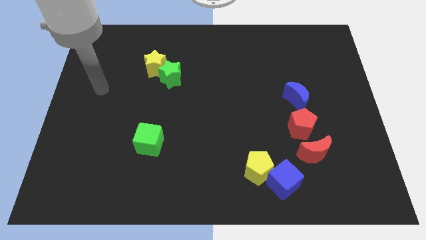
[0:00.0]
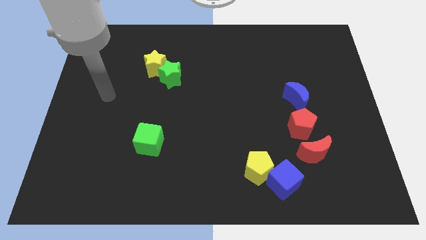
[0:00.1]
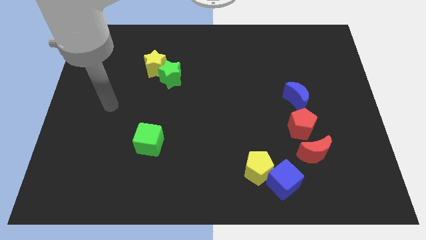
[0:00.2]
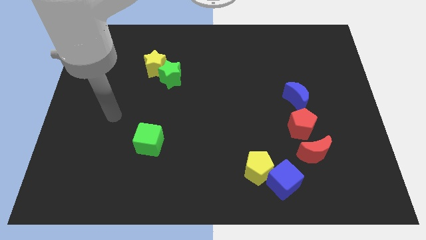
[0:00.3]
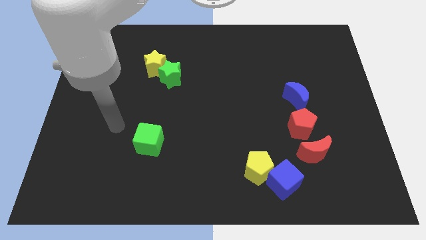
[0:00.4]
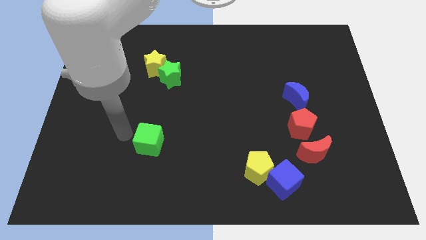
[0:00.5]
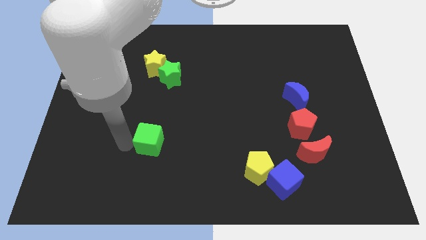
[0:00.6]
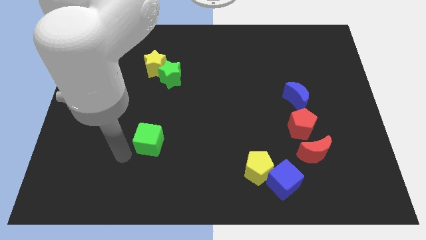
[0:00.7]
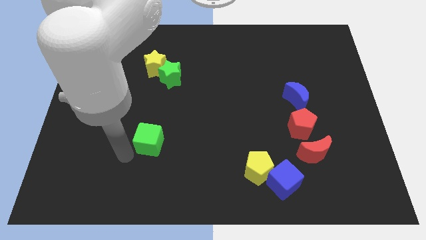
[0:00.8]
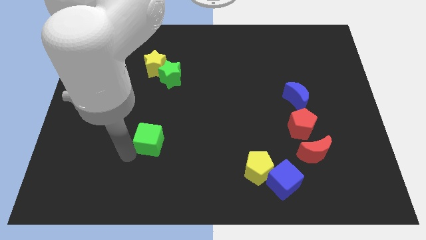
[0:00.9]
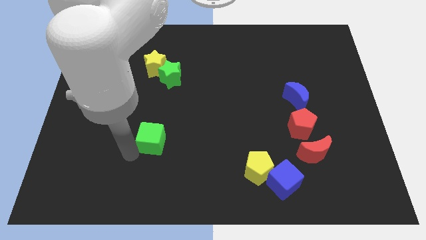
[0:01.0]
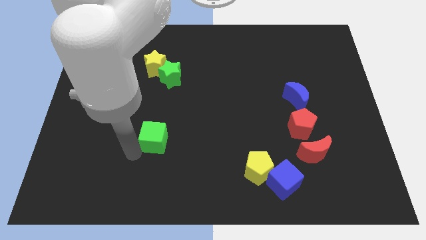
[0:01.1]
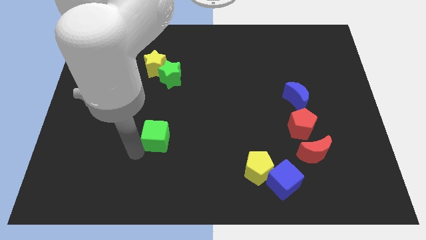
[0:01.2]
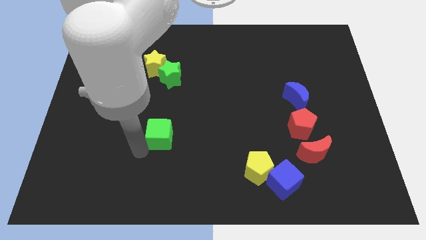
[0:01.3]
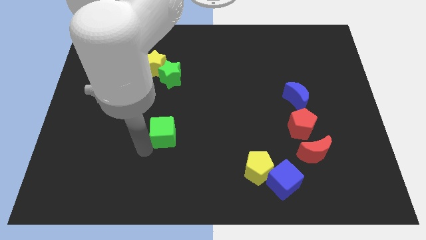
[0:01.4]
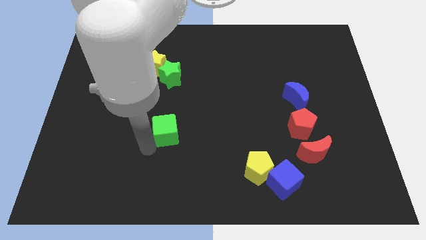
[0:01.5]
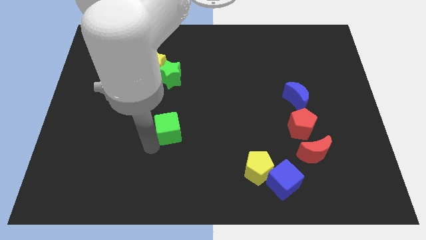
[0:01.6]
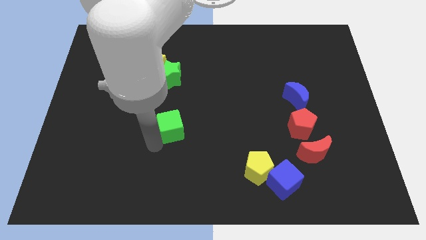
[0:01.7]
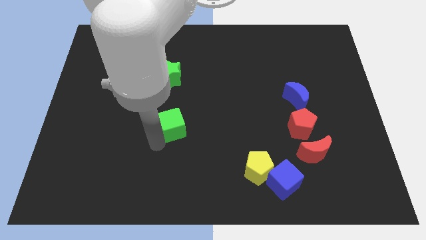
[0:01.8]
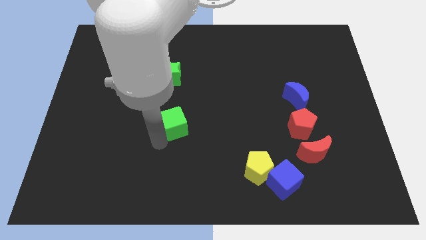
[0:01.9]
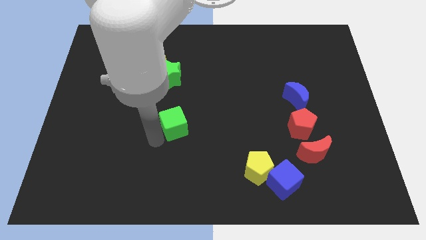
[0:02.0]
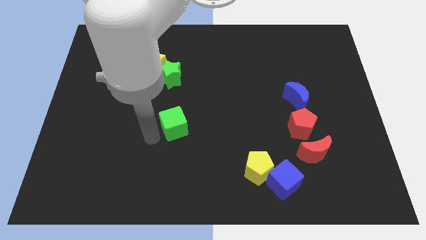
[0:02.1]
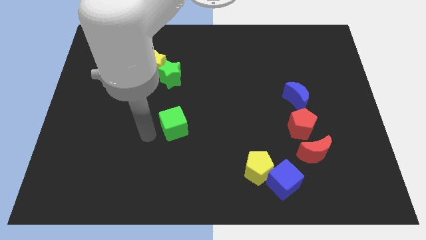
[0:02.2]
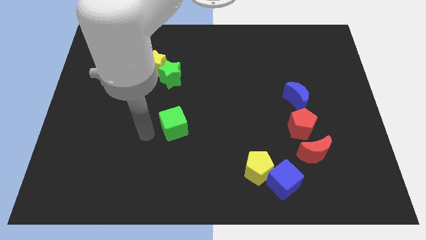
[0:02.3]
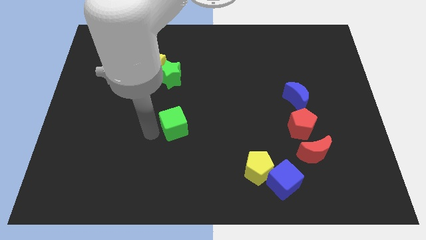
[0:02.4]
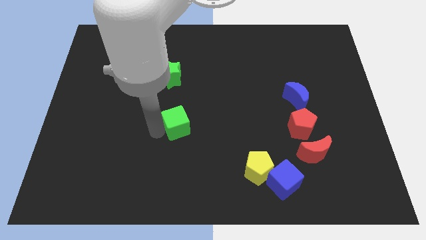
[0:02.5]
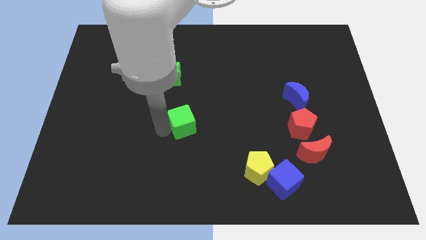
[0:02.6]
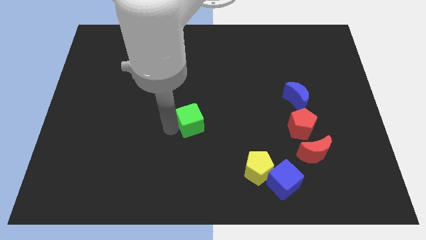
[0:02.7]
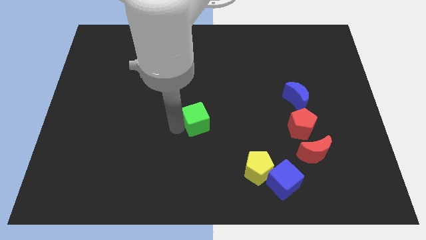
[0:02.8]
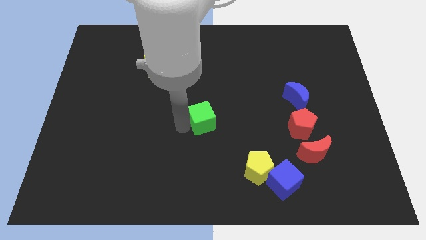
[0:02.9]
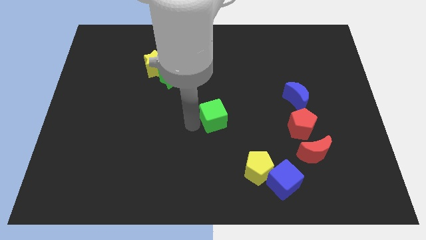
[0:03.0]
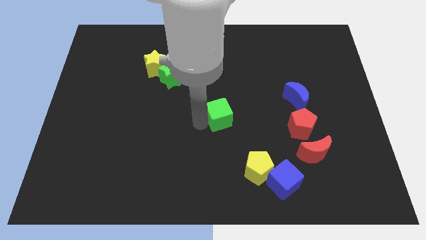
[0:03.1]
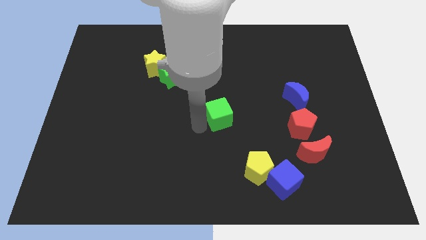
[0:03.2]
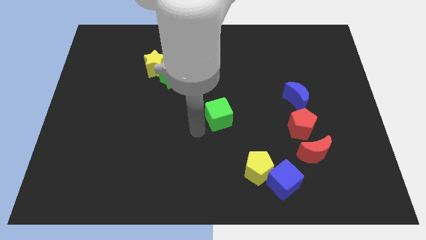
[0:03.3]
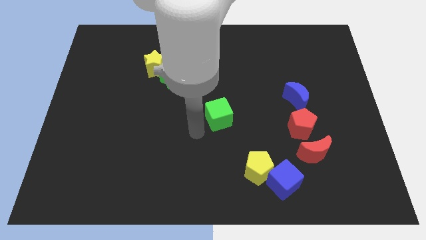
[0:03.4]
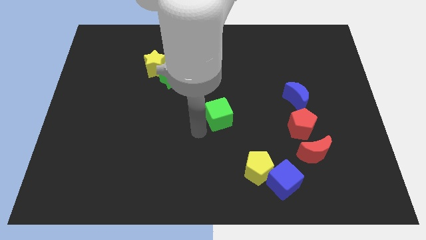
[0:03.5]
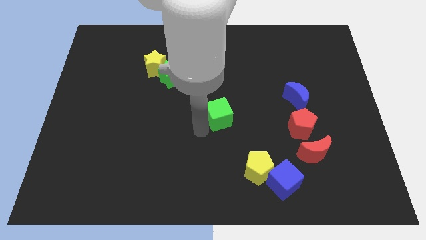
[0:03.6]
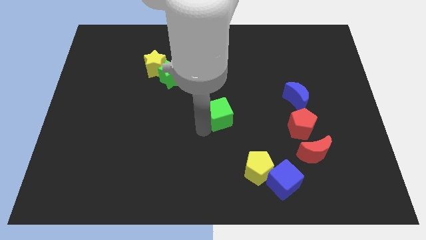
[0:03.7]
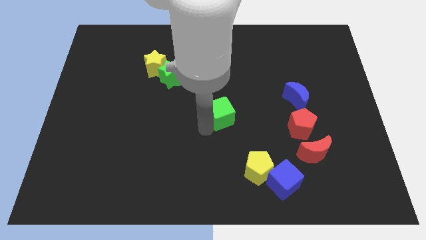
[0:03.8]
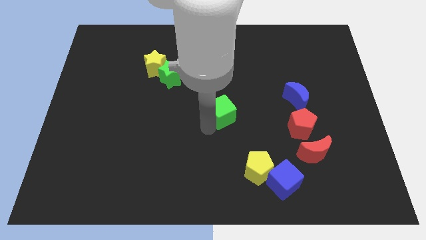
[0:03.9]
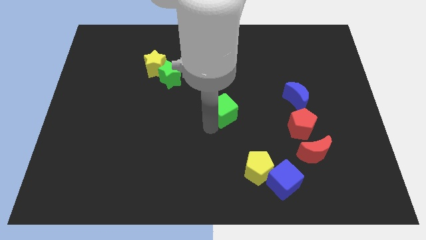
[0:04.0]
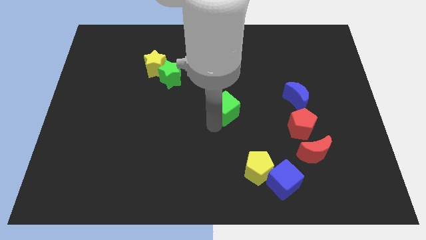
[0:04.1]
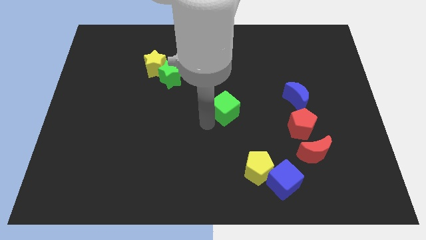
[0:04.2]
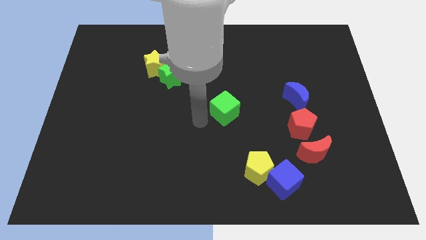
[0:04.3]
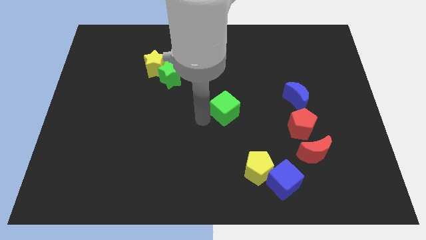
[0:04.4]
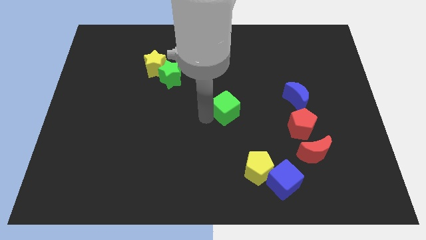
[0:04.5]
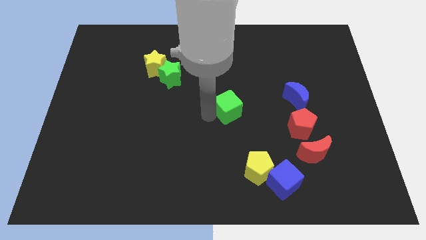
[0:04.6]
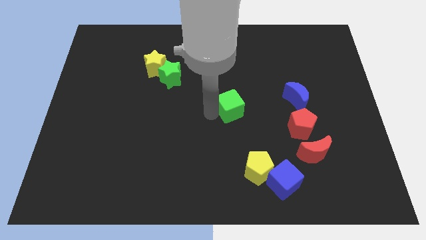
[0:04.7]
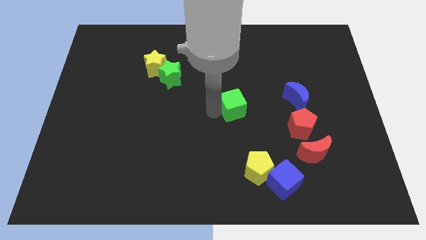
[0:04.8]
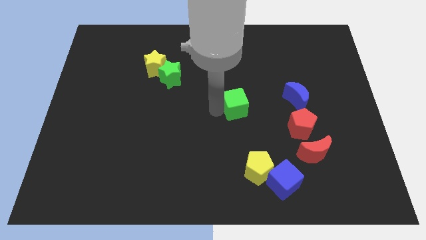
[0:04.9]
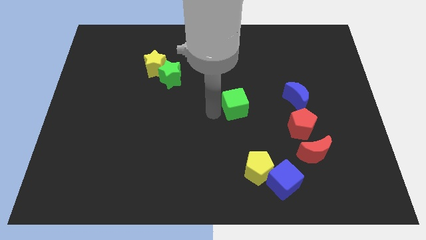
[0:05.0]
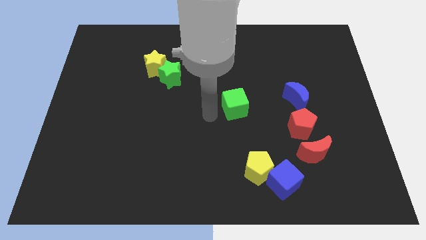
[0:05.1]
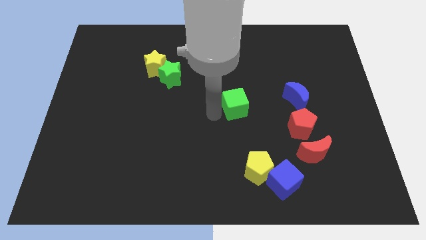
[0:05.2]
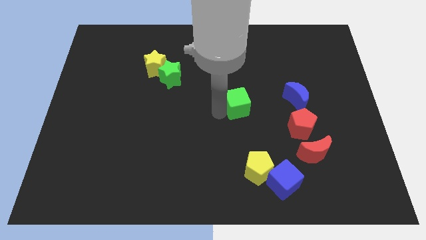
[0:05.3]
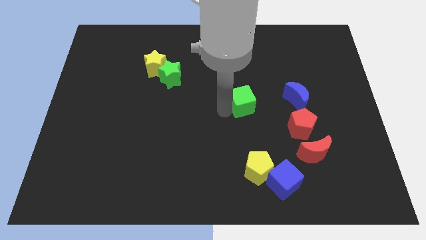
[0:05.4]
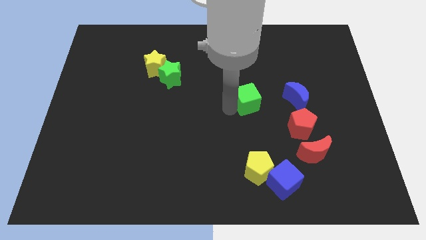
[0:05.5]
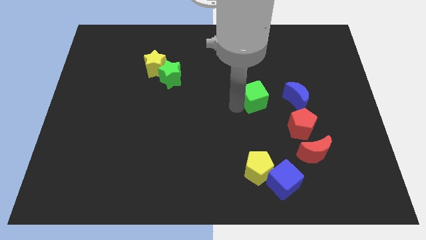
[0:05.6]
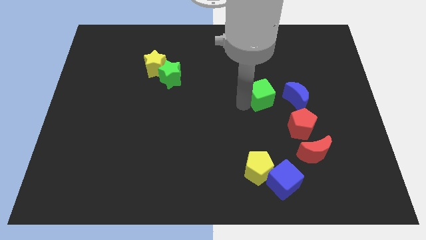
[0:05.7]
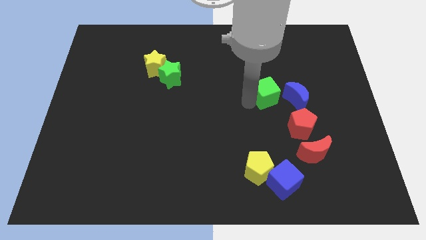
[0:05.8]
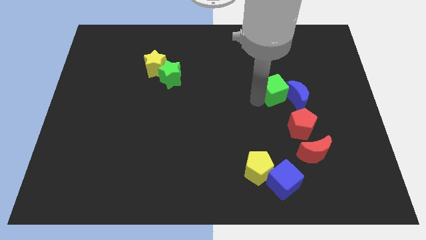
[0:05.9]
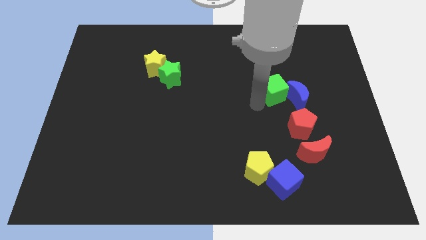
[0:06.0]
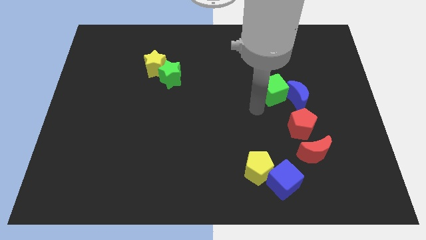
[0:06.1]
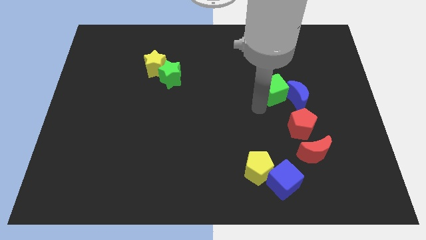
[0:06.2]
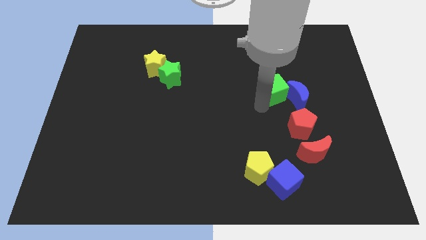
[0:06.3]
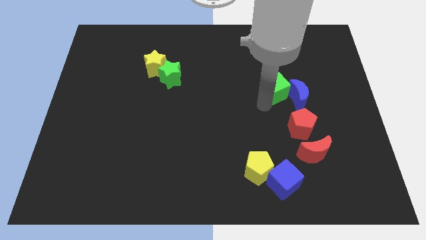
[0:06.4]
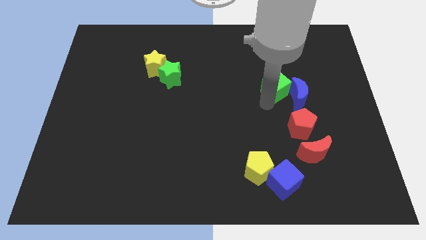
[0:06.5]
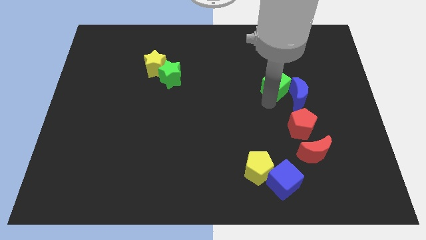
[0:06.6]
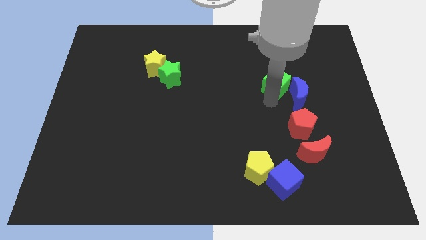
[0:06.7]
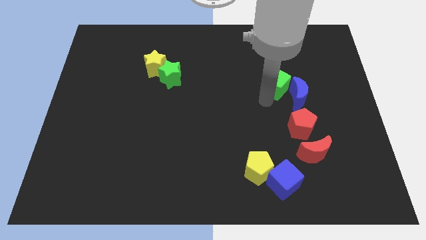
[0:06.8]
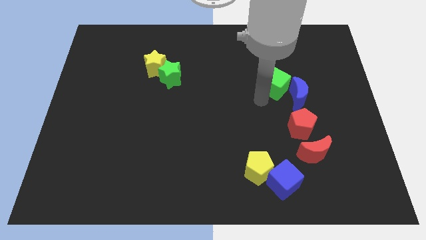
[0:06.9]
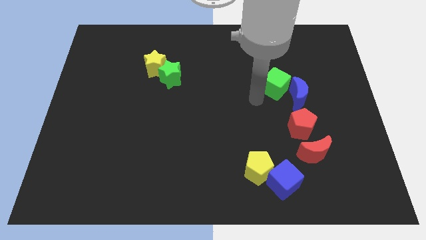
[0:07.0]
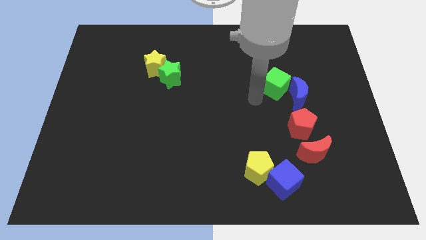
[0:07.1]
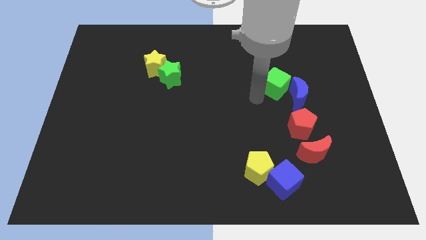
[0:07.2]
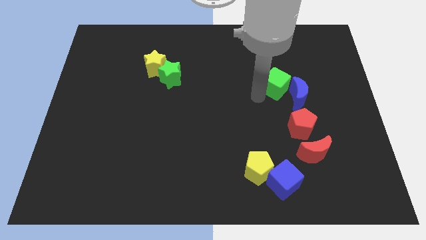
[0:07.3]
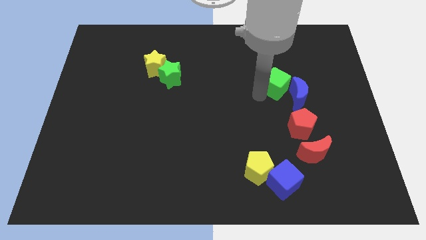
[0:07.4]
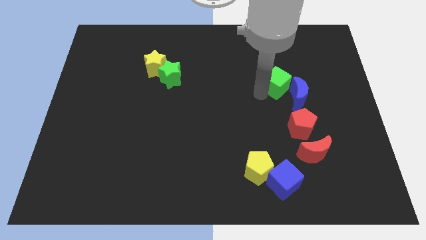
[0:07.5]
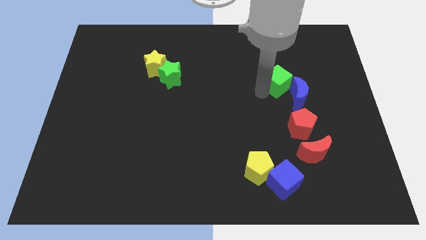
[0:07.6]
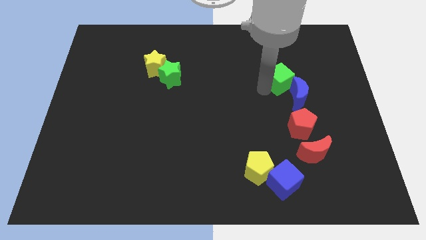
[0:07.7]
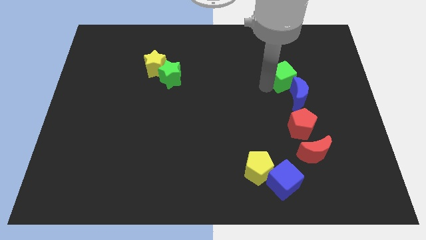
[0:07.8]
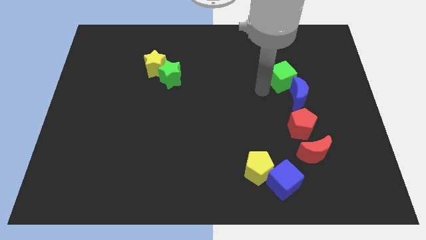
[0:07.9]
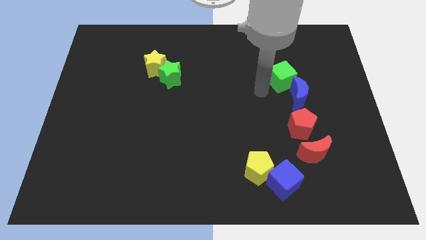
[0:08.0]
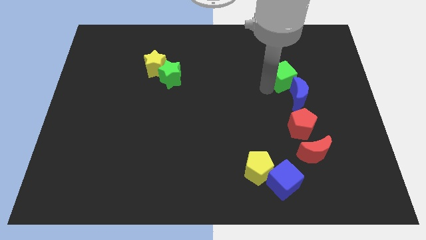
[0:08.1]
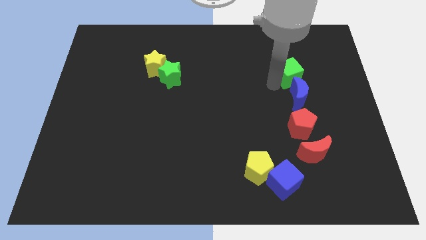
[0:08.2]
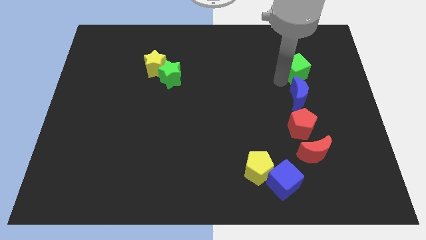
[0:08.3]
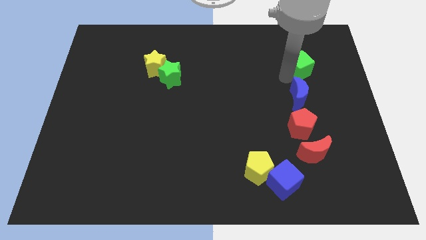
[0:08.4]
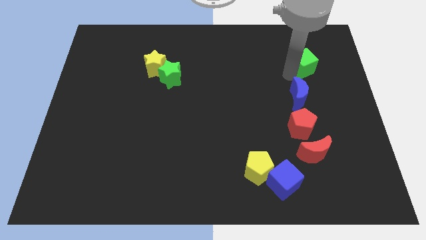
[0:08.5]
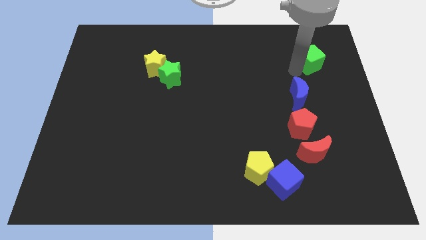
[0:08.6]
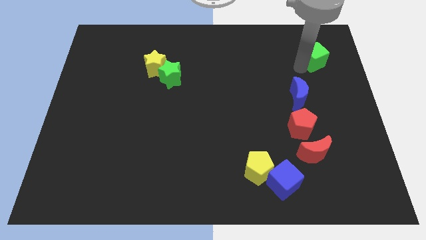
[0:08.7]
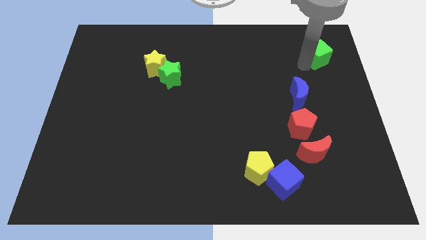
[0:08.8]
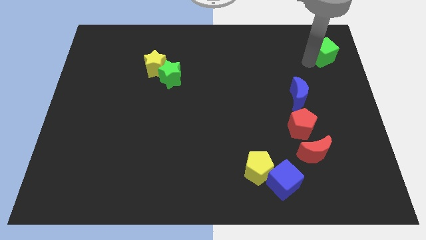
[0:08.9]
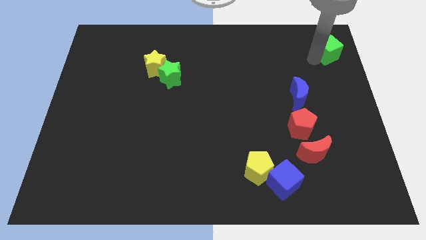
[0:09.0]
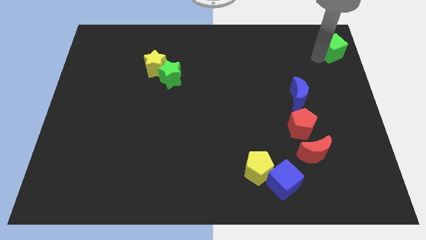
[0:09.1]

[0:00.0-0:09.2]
push the green cube to the top right
